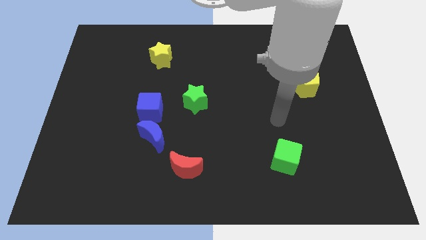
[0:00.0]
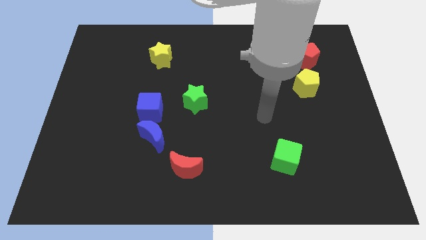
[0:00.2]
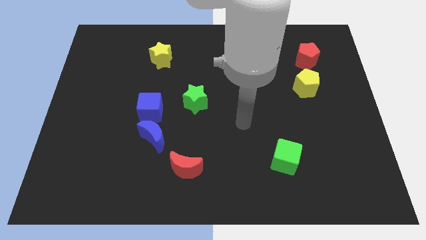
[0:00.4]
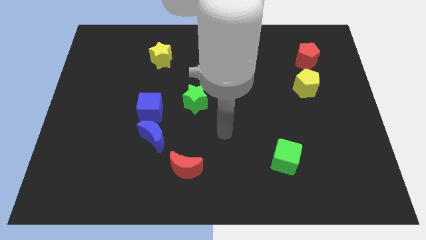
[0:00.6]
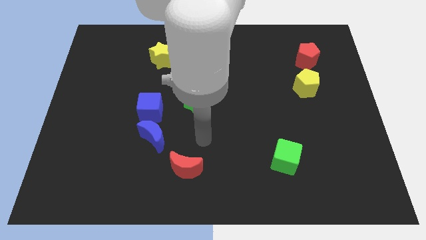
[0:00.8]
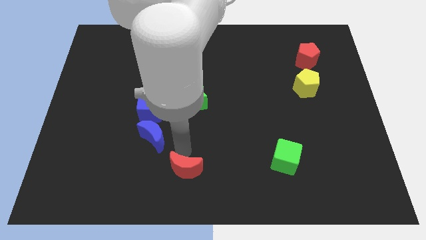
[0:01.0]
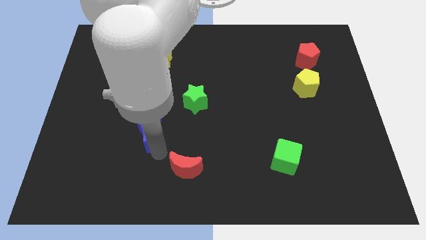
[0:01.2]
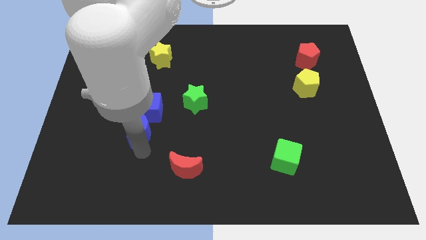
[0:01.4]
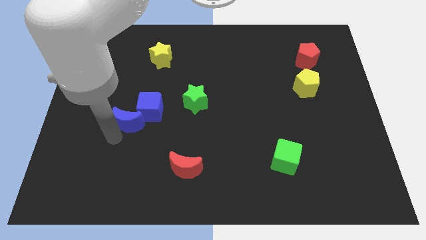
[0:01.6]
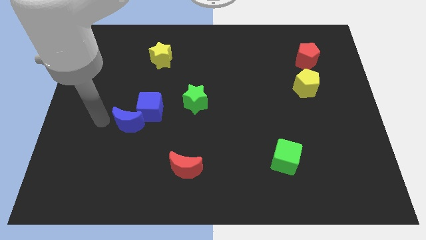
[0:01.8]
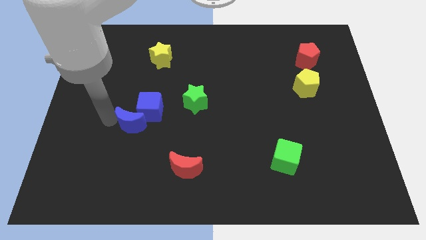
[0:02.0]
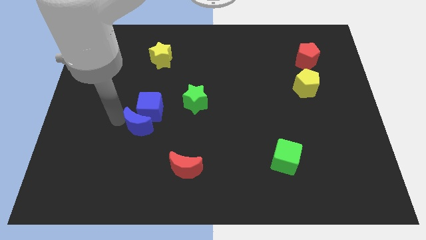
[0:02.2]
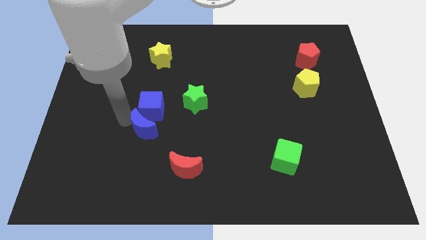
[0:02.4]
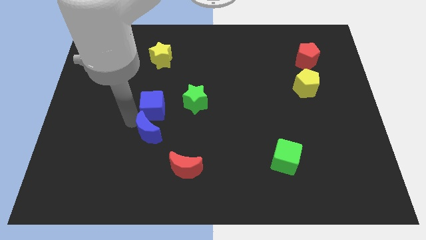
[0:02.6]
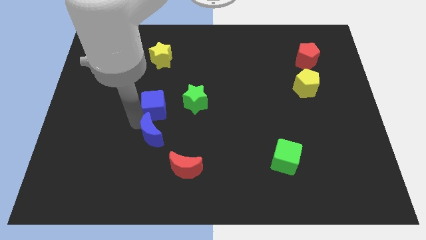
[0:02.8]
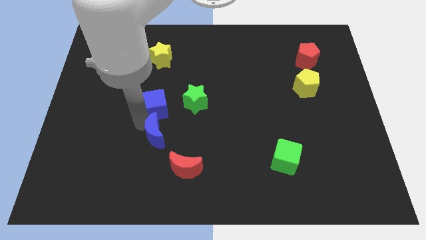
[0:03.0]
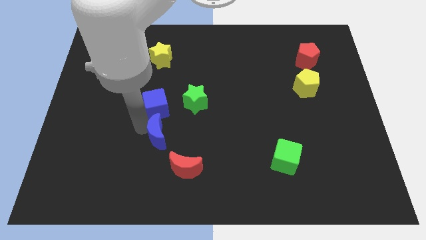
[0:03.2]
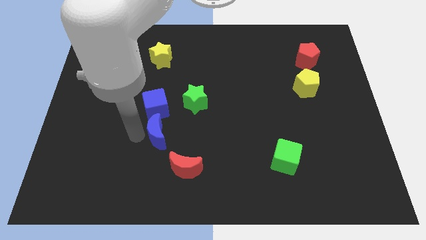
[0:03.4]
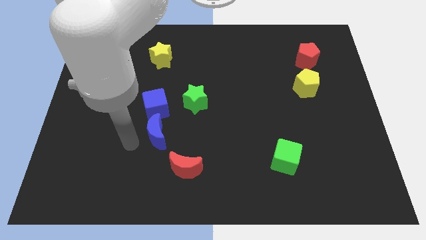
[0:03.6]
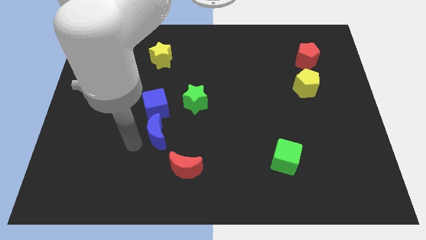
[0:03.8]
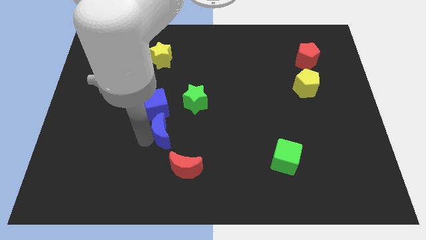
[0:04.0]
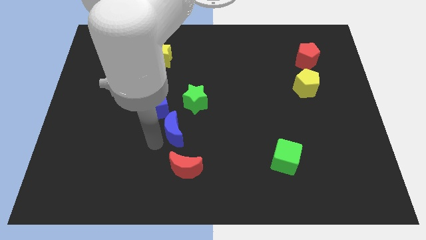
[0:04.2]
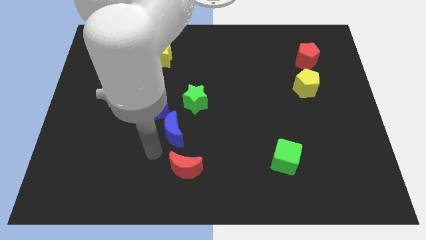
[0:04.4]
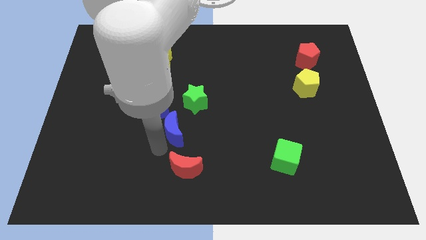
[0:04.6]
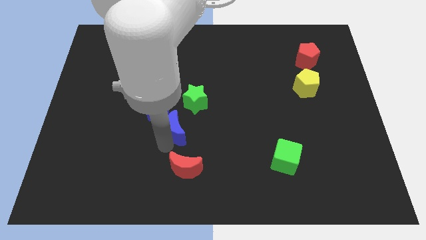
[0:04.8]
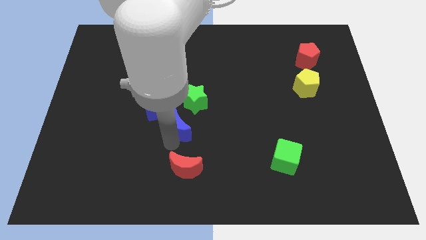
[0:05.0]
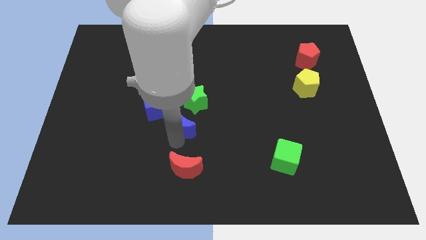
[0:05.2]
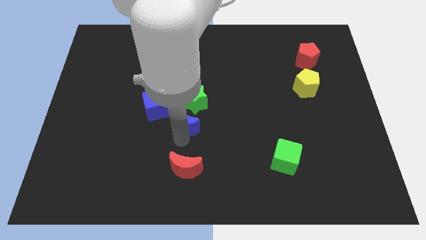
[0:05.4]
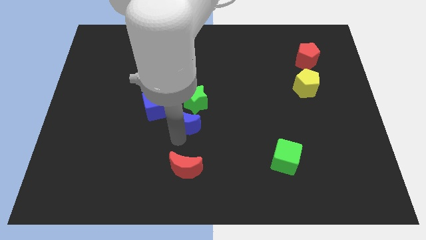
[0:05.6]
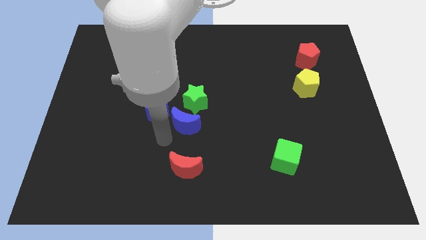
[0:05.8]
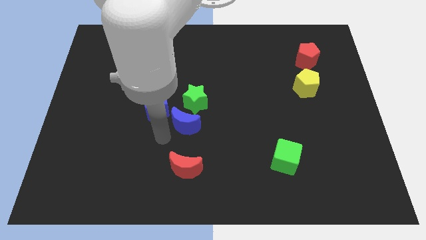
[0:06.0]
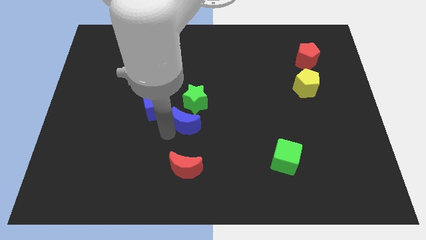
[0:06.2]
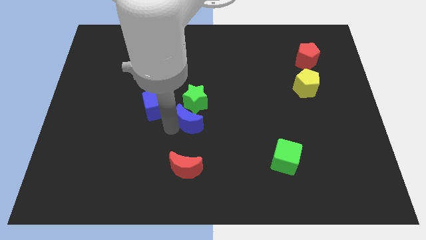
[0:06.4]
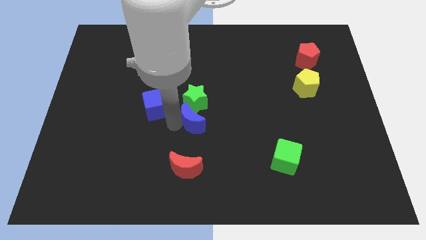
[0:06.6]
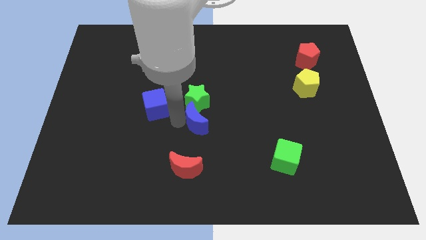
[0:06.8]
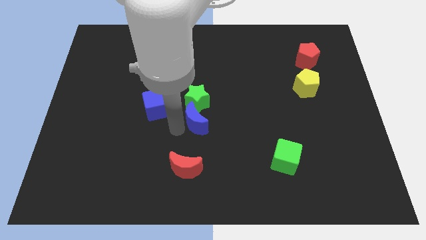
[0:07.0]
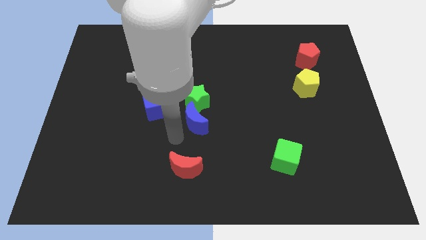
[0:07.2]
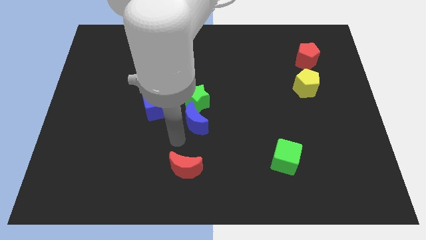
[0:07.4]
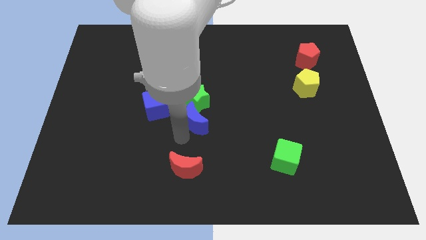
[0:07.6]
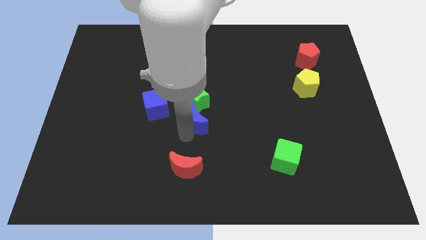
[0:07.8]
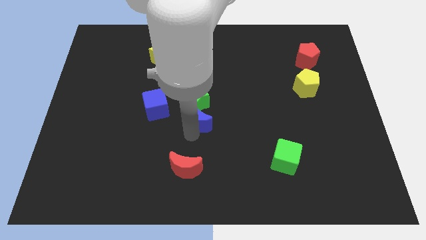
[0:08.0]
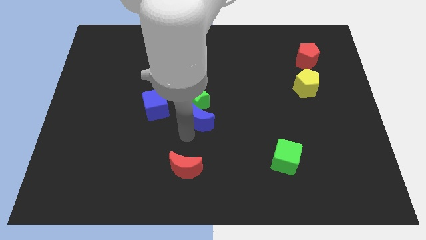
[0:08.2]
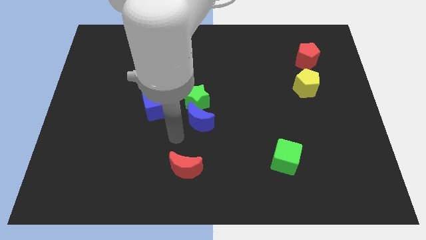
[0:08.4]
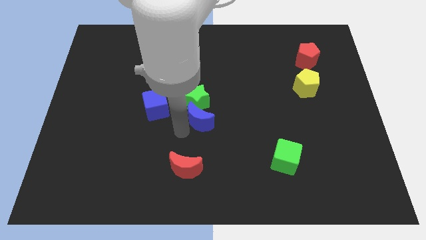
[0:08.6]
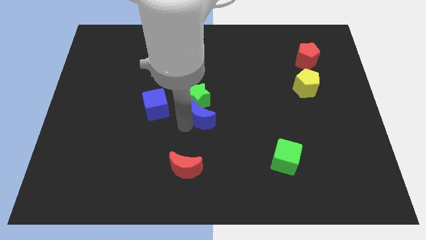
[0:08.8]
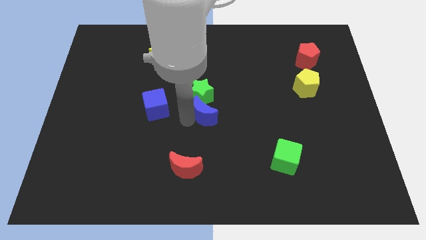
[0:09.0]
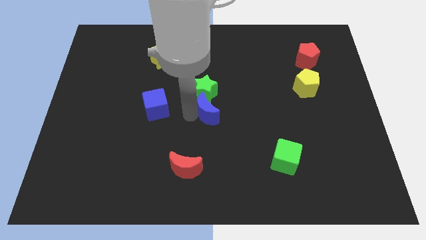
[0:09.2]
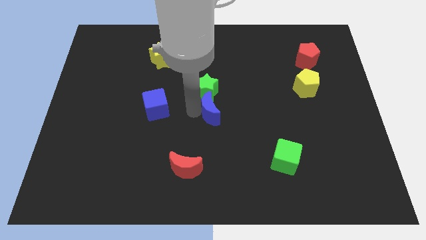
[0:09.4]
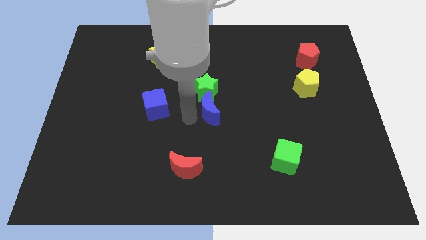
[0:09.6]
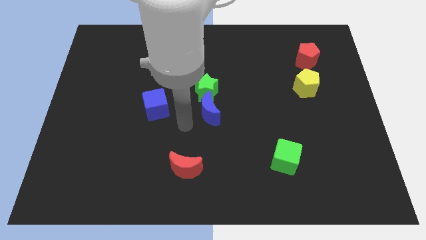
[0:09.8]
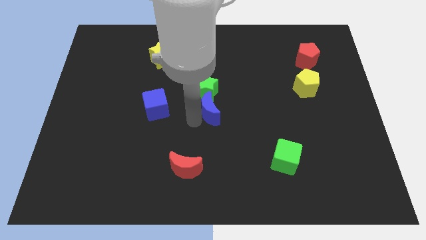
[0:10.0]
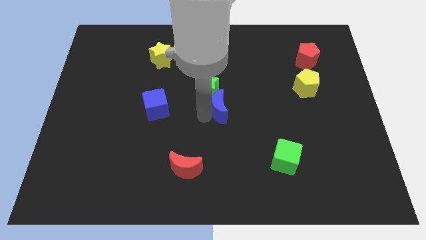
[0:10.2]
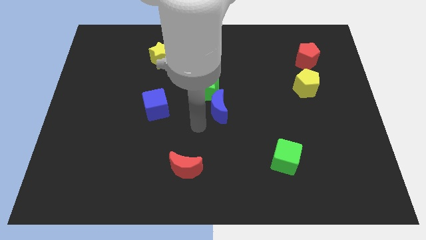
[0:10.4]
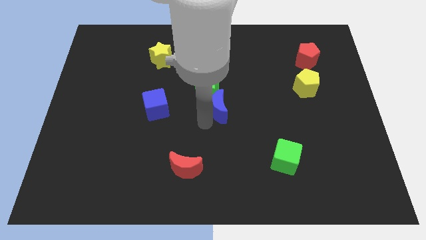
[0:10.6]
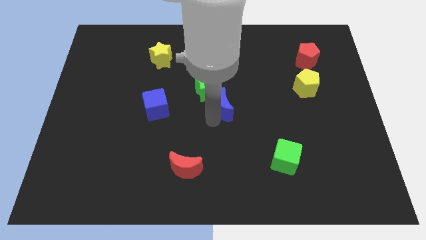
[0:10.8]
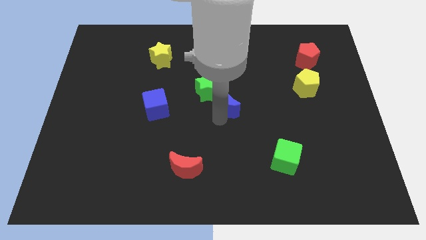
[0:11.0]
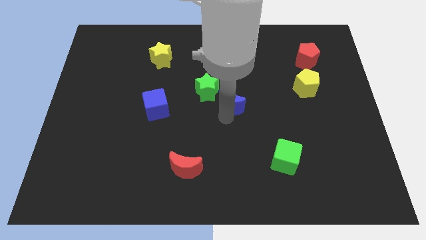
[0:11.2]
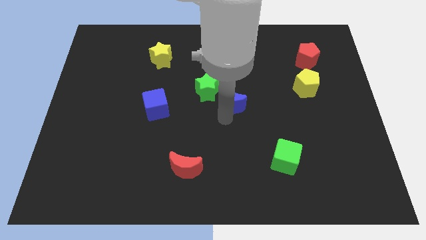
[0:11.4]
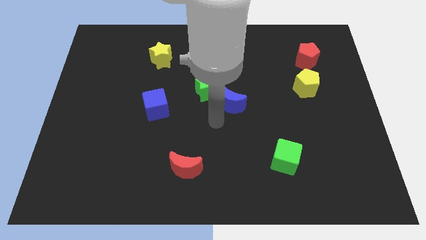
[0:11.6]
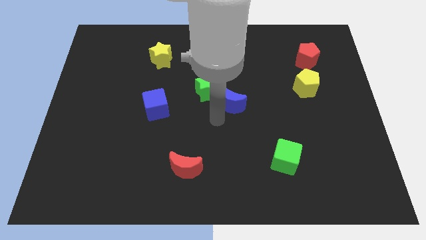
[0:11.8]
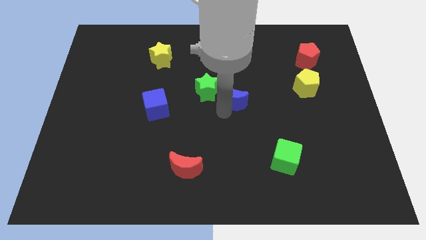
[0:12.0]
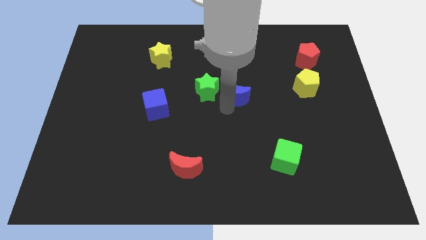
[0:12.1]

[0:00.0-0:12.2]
slide the blue moon up and right diagonally

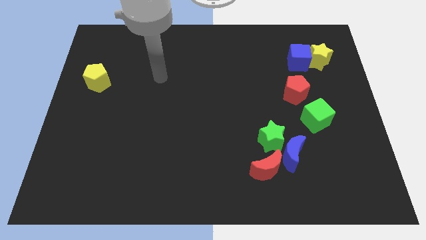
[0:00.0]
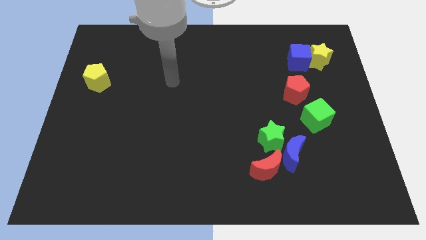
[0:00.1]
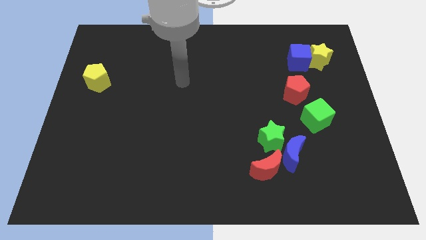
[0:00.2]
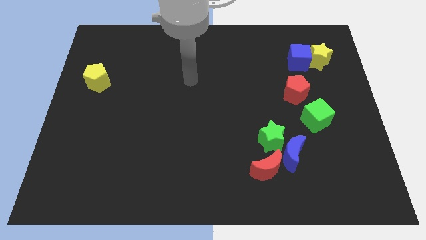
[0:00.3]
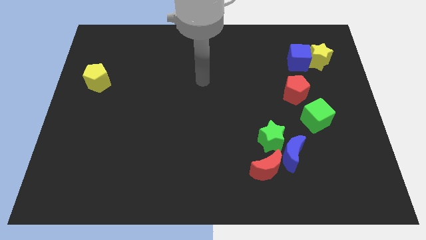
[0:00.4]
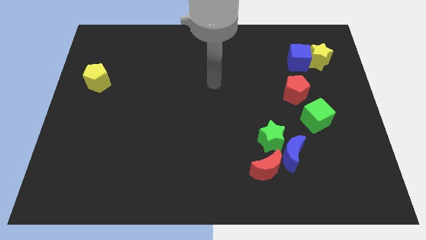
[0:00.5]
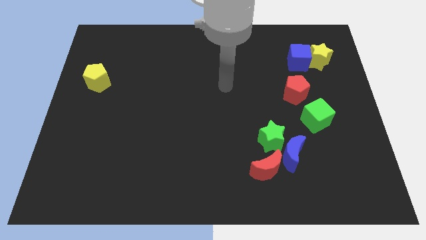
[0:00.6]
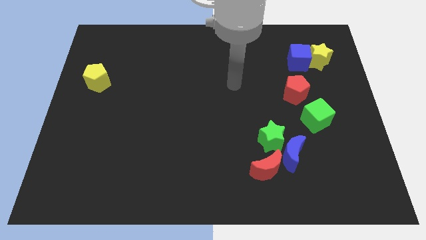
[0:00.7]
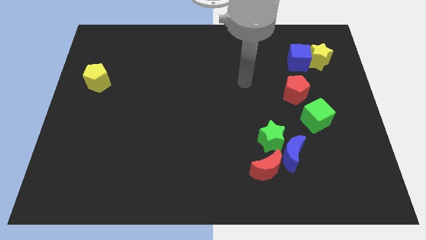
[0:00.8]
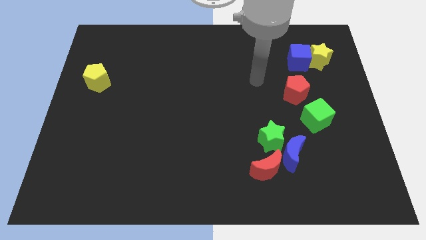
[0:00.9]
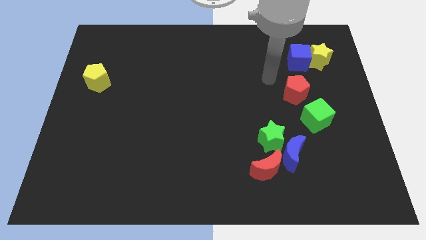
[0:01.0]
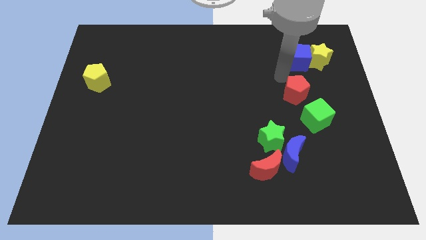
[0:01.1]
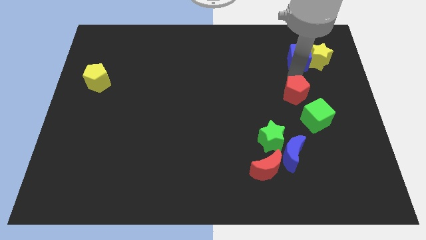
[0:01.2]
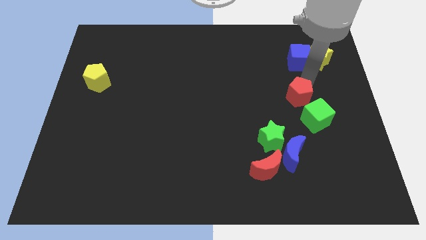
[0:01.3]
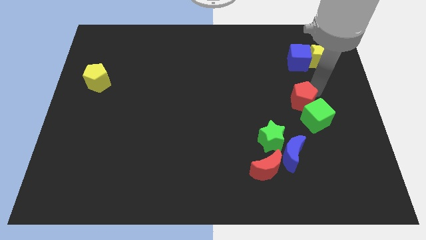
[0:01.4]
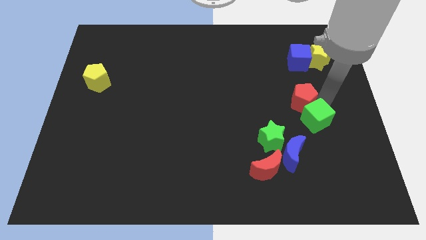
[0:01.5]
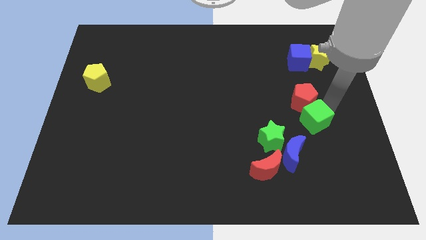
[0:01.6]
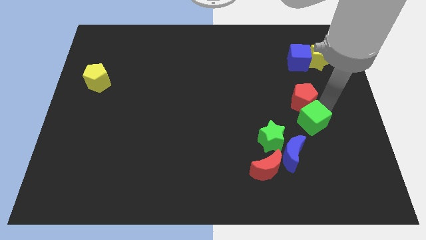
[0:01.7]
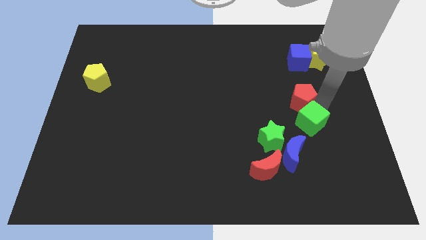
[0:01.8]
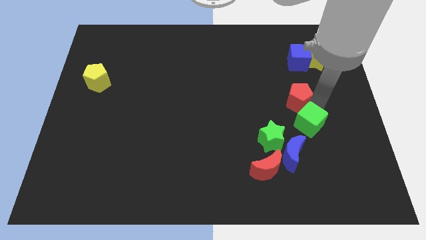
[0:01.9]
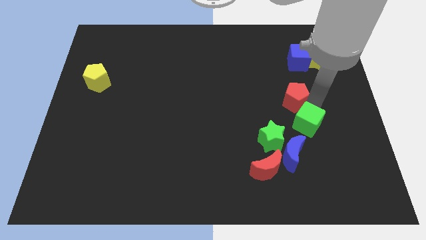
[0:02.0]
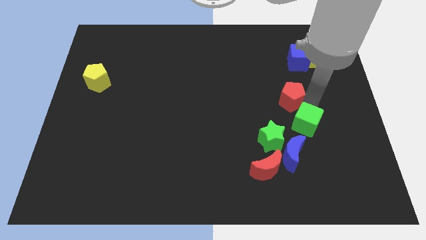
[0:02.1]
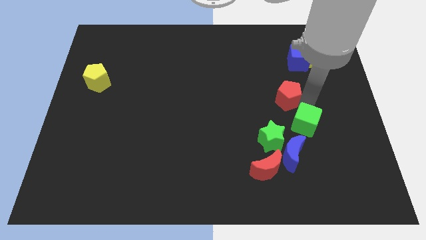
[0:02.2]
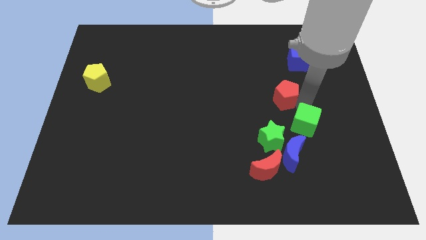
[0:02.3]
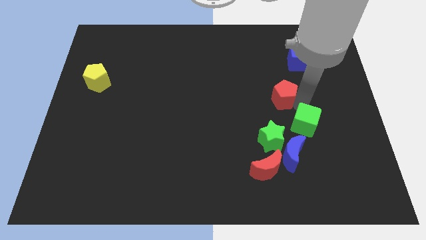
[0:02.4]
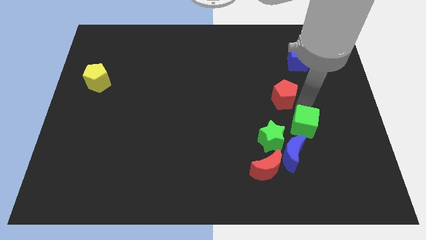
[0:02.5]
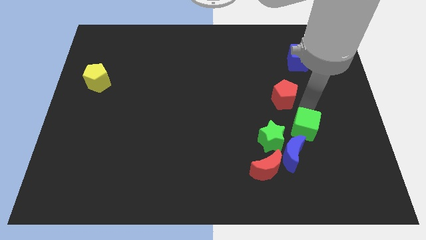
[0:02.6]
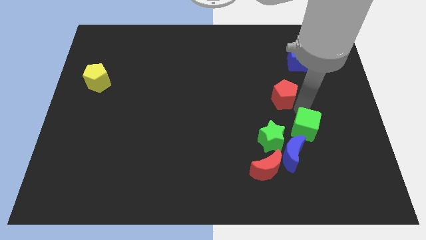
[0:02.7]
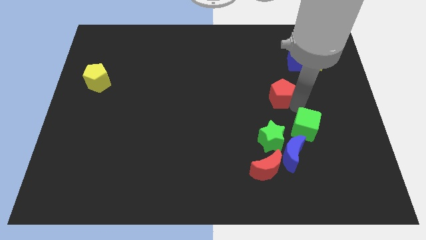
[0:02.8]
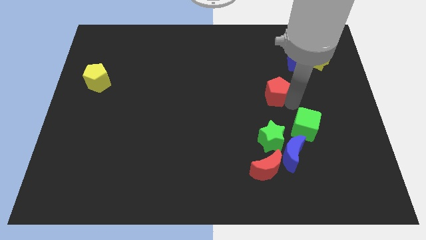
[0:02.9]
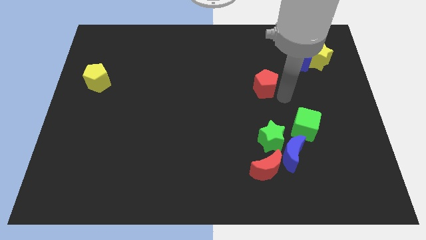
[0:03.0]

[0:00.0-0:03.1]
move the red pentagon slightly to the left
